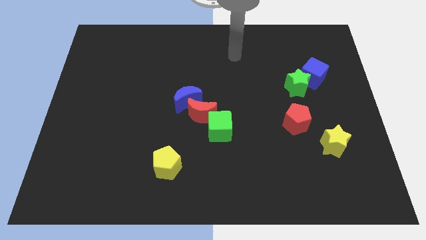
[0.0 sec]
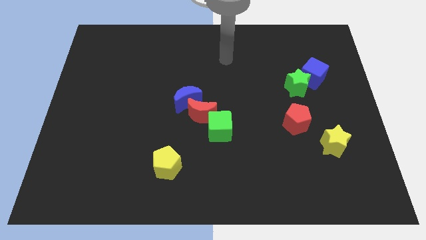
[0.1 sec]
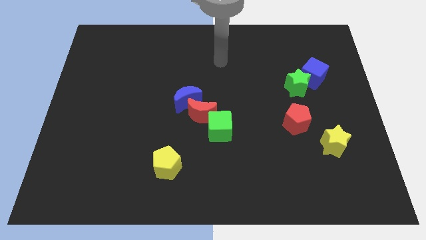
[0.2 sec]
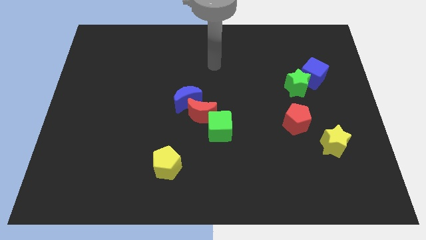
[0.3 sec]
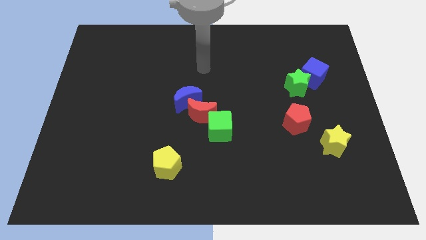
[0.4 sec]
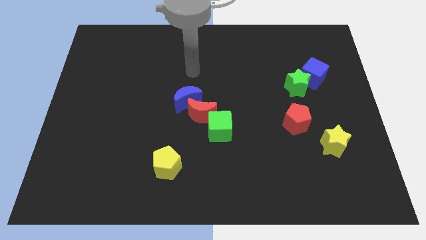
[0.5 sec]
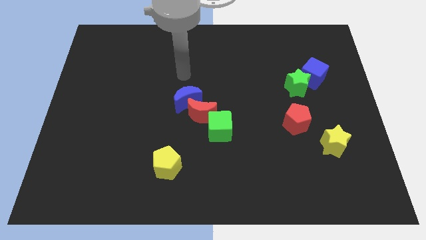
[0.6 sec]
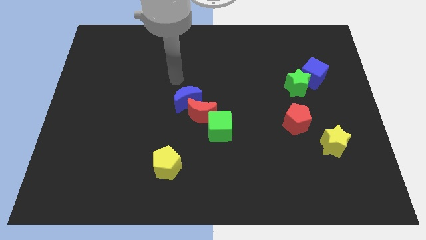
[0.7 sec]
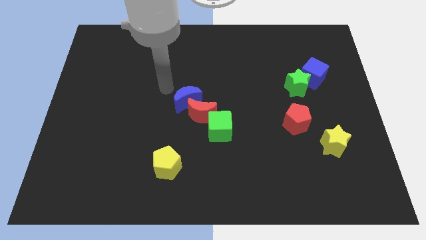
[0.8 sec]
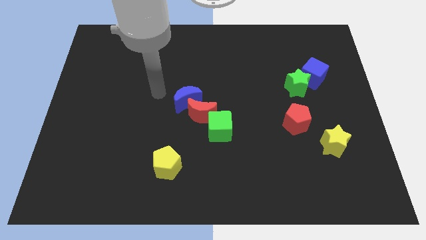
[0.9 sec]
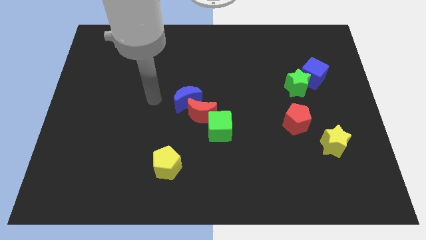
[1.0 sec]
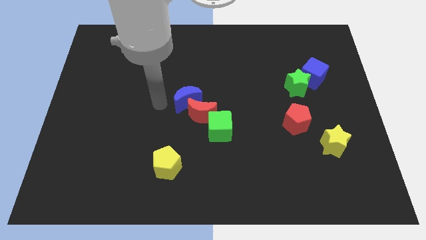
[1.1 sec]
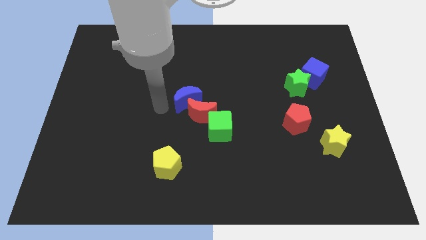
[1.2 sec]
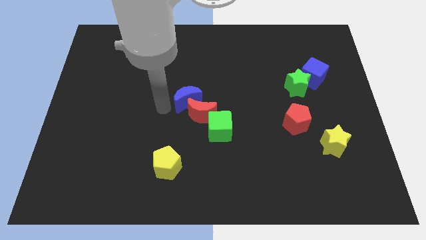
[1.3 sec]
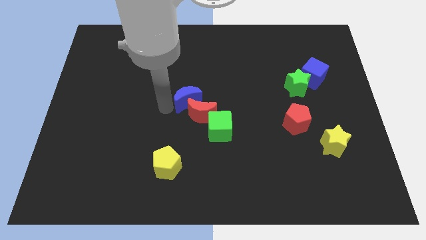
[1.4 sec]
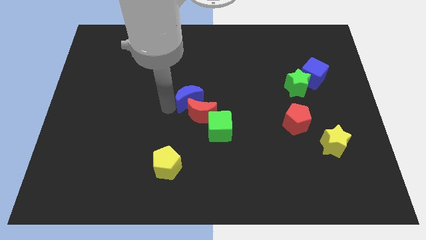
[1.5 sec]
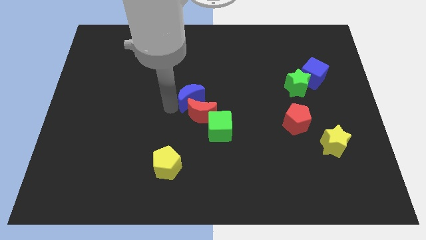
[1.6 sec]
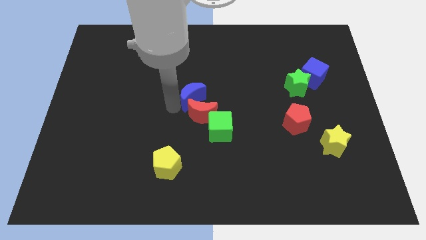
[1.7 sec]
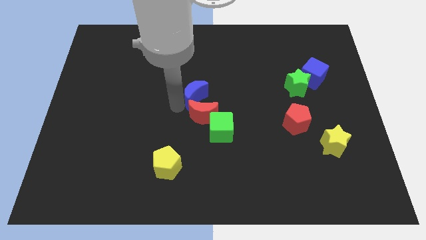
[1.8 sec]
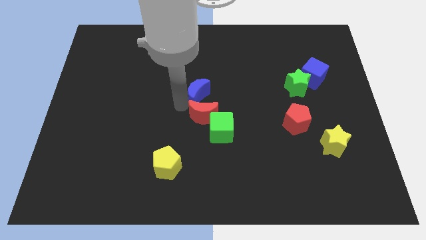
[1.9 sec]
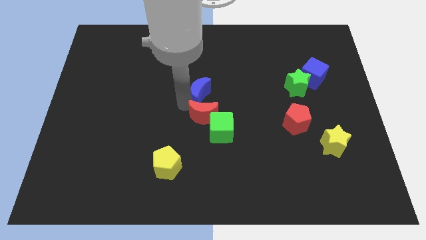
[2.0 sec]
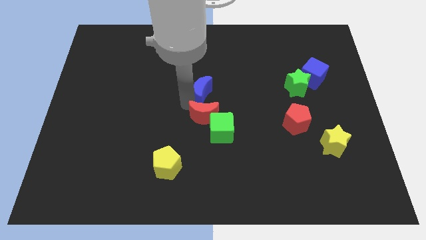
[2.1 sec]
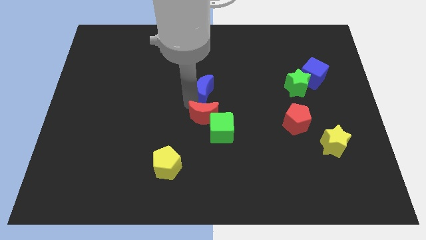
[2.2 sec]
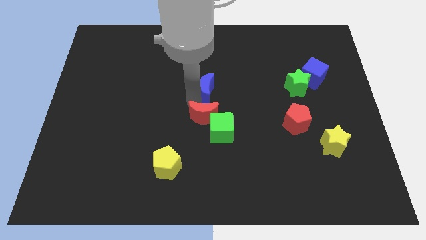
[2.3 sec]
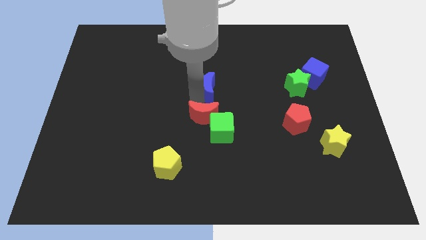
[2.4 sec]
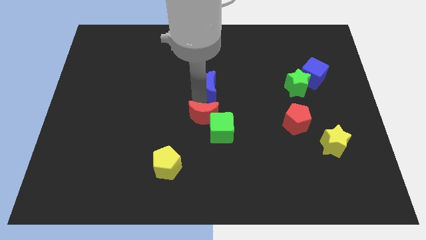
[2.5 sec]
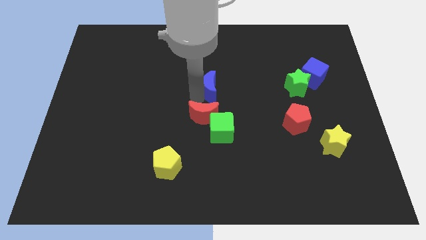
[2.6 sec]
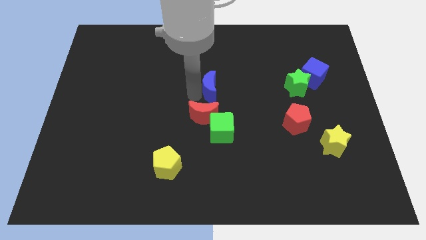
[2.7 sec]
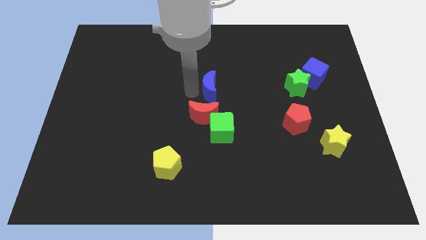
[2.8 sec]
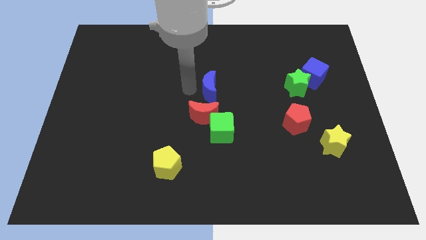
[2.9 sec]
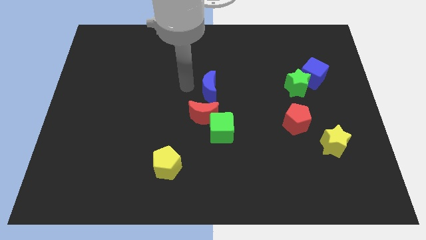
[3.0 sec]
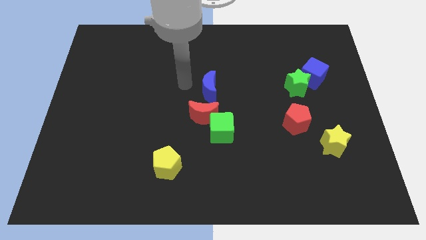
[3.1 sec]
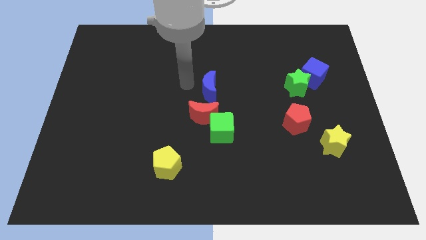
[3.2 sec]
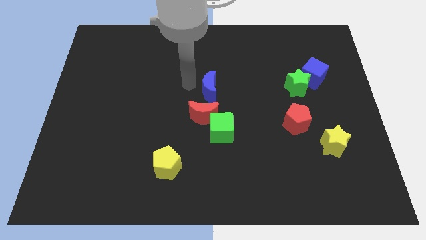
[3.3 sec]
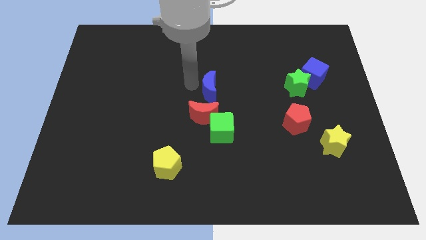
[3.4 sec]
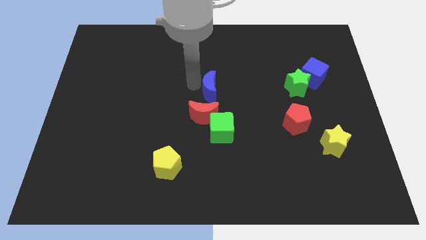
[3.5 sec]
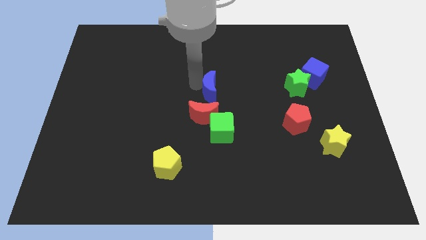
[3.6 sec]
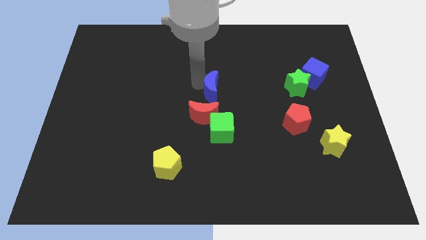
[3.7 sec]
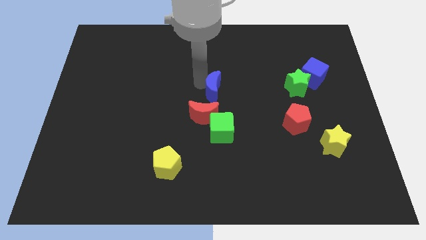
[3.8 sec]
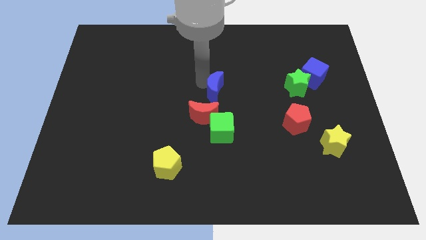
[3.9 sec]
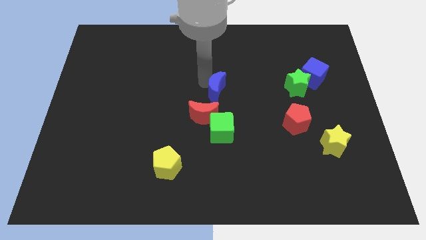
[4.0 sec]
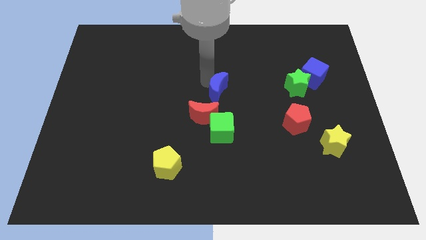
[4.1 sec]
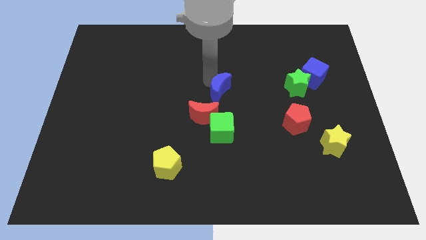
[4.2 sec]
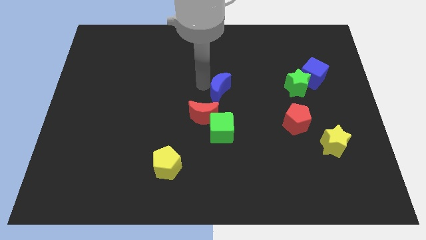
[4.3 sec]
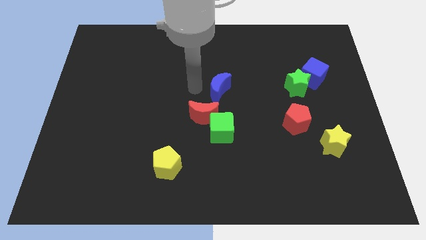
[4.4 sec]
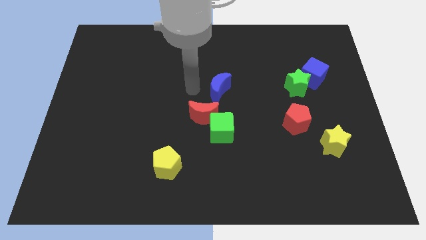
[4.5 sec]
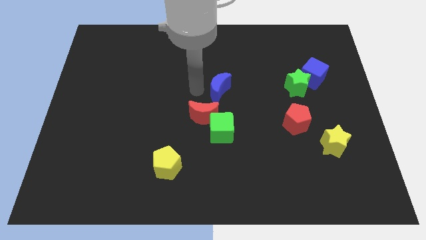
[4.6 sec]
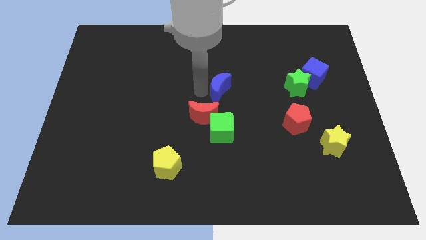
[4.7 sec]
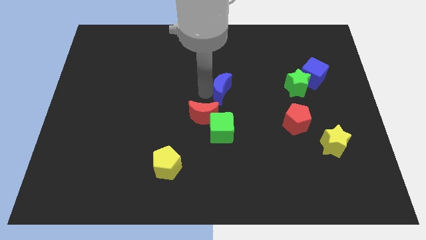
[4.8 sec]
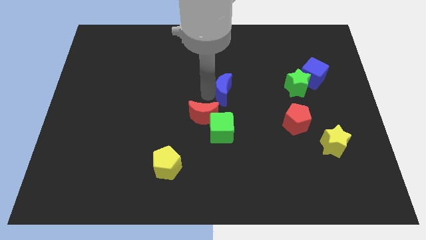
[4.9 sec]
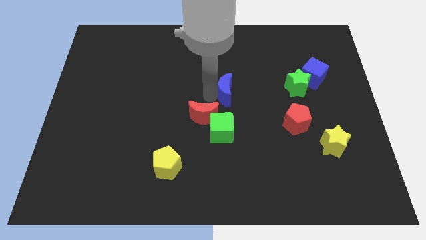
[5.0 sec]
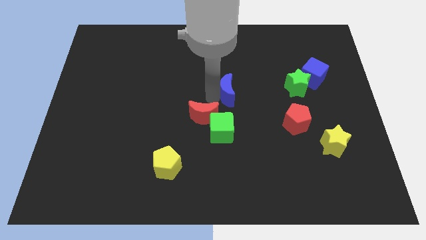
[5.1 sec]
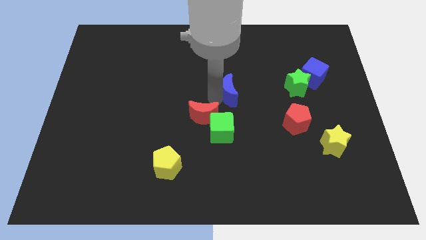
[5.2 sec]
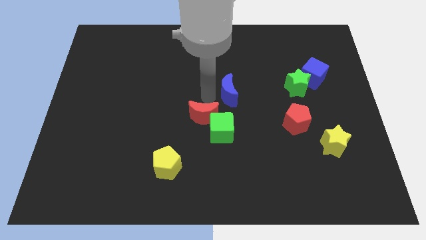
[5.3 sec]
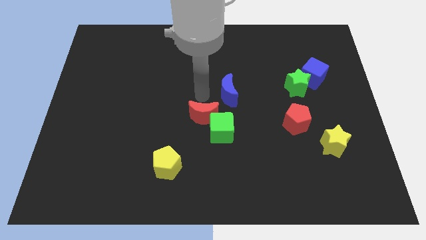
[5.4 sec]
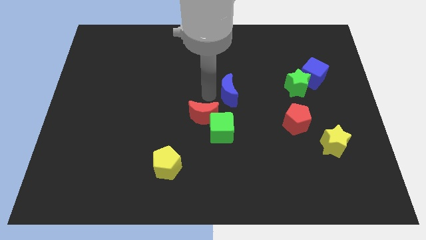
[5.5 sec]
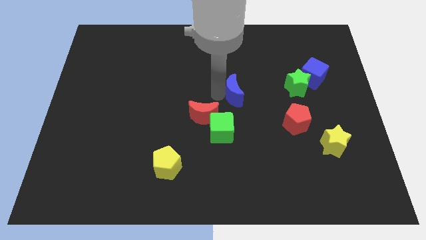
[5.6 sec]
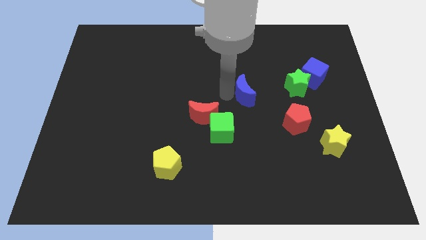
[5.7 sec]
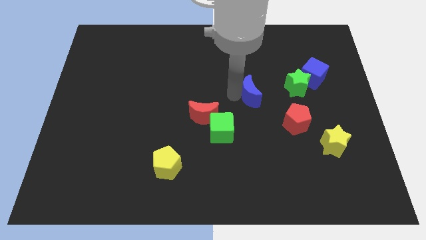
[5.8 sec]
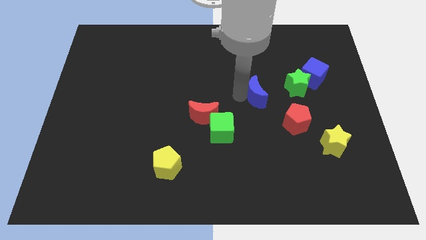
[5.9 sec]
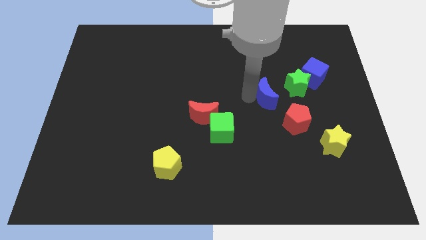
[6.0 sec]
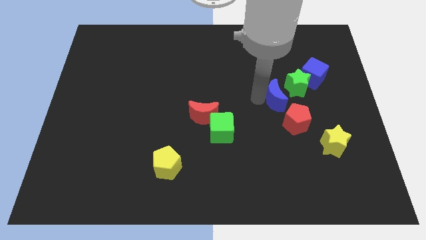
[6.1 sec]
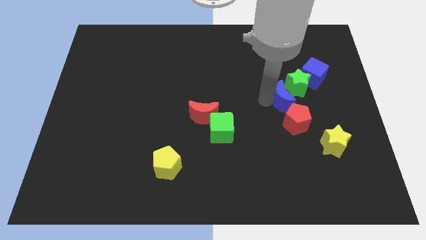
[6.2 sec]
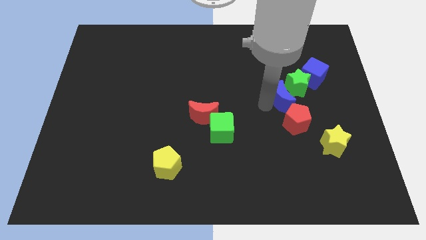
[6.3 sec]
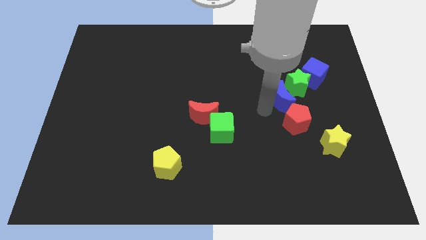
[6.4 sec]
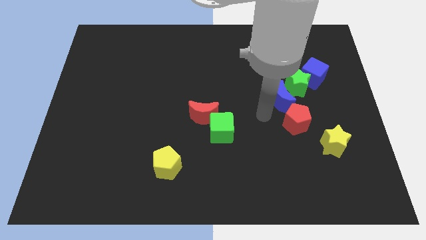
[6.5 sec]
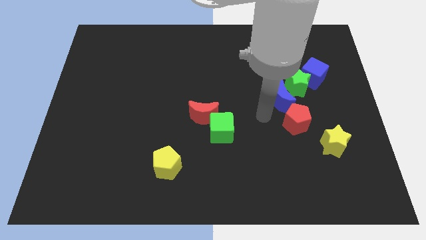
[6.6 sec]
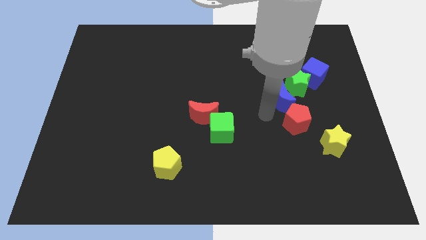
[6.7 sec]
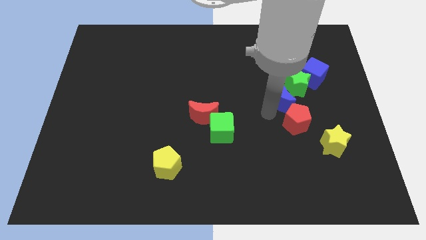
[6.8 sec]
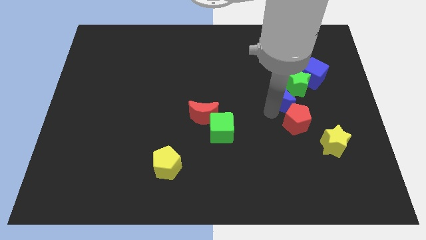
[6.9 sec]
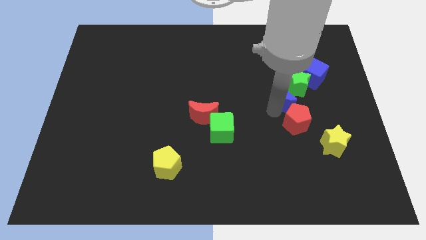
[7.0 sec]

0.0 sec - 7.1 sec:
slide the blue moon close to the green star
